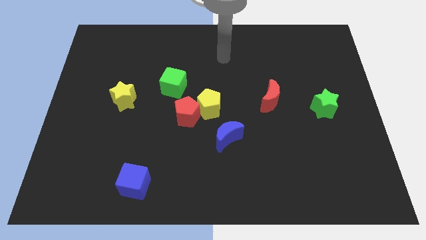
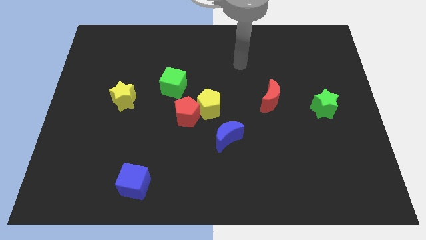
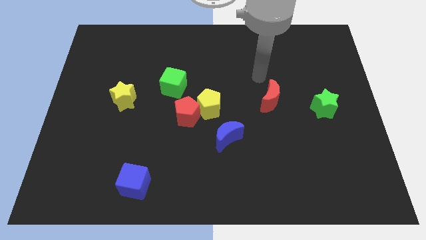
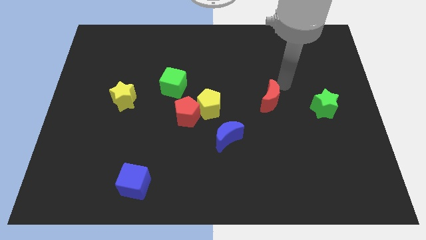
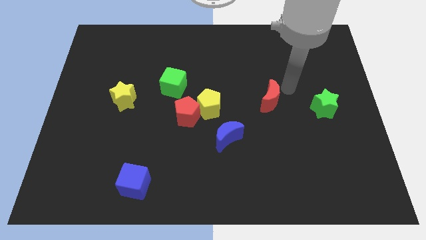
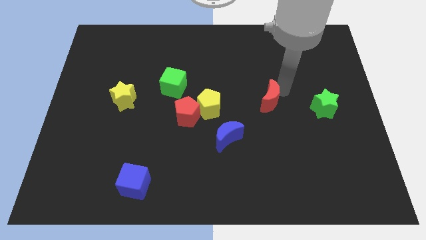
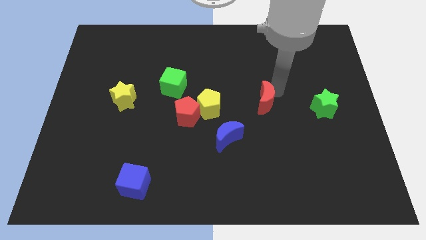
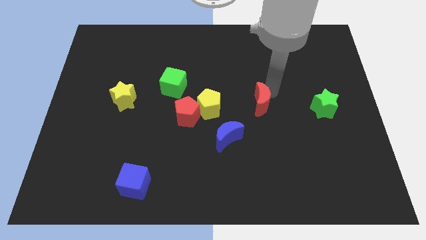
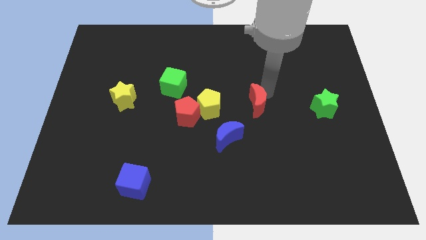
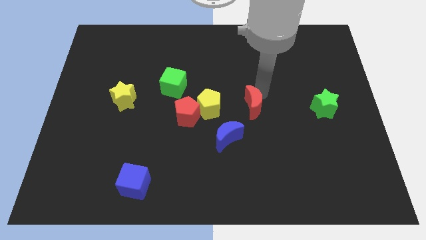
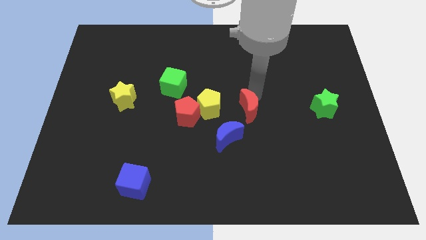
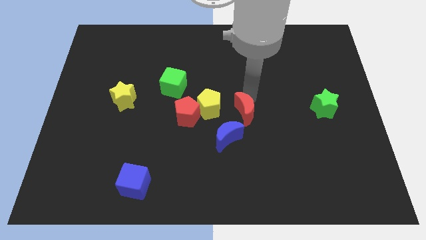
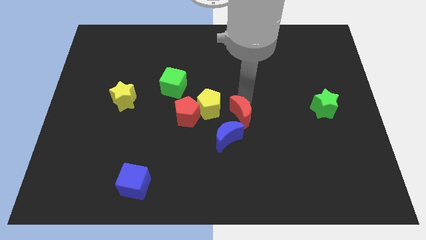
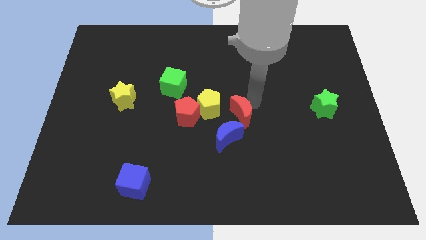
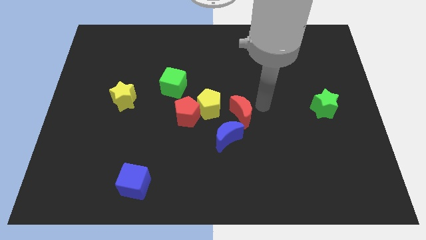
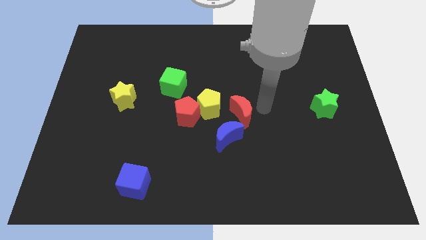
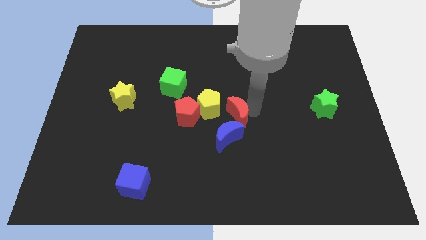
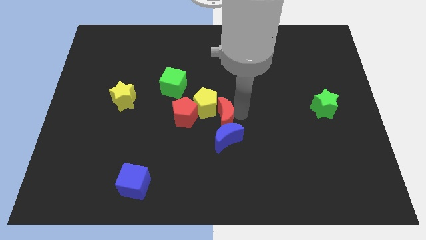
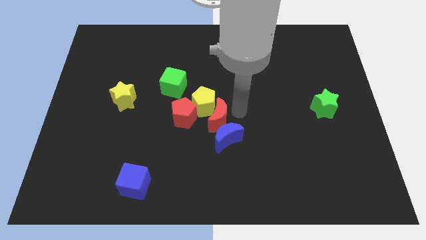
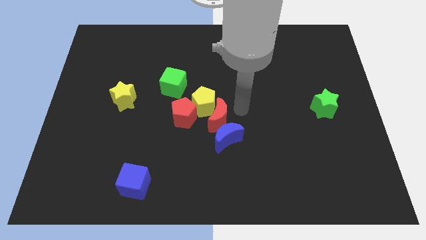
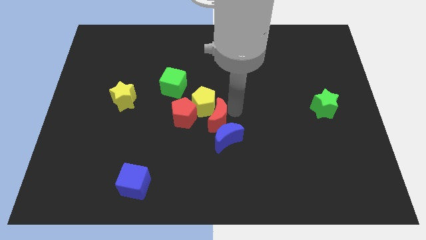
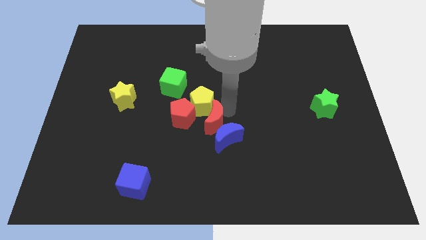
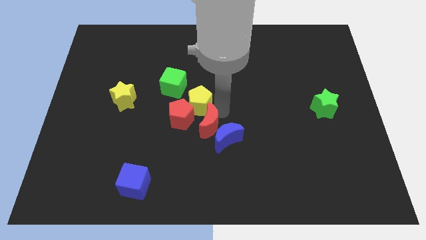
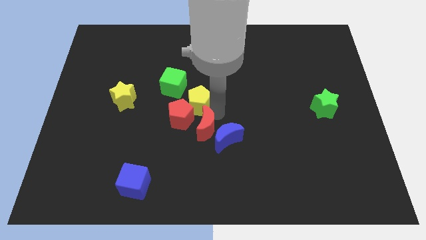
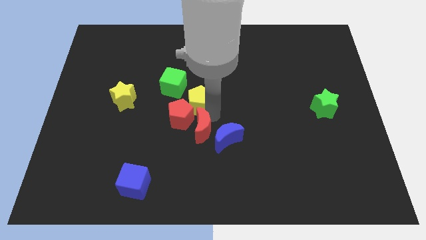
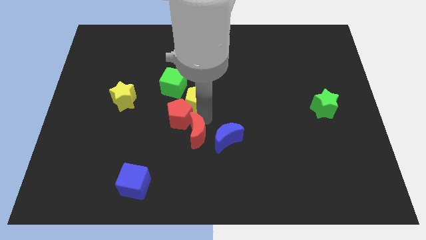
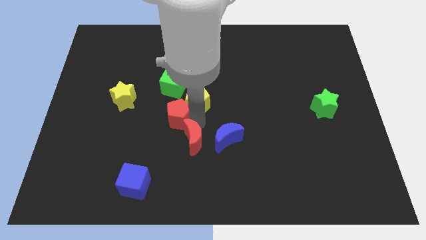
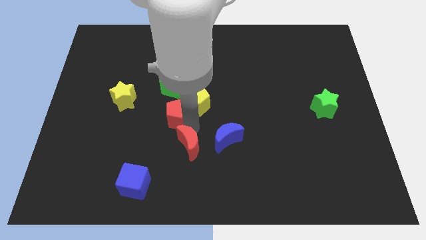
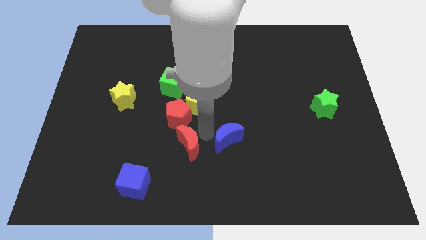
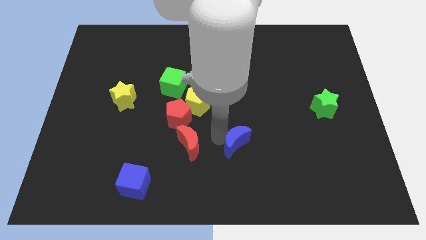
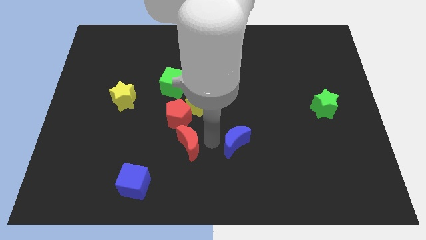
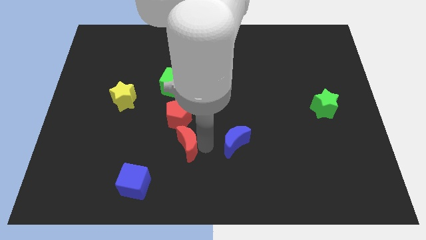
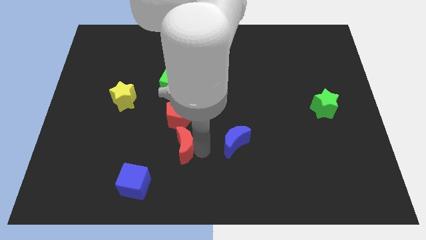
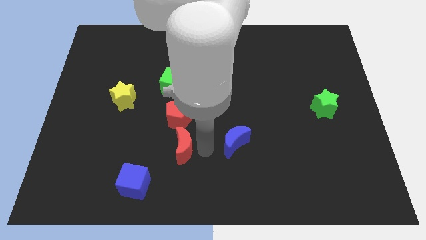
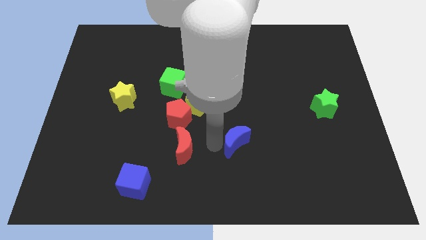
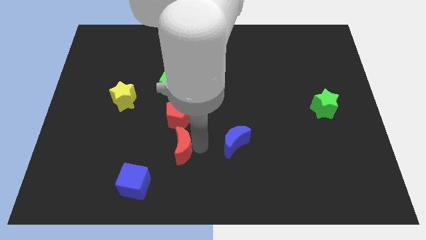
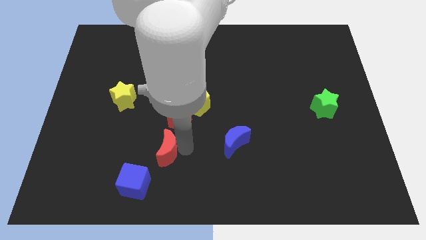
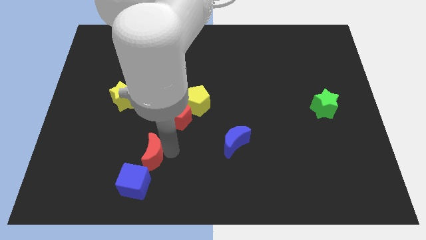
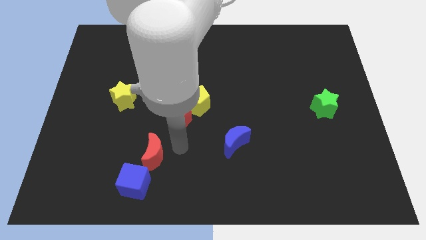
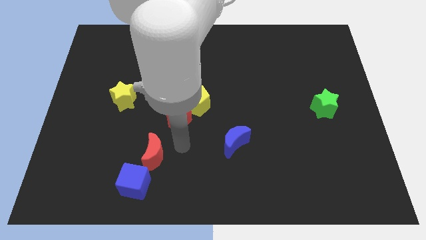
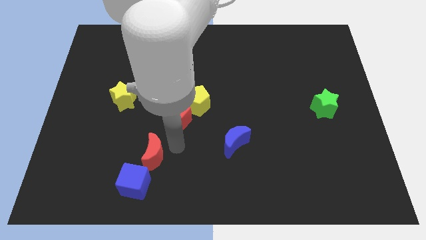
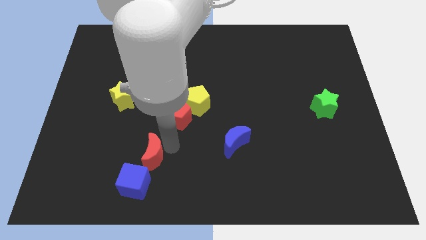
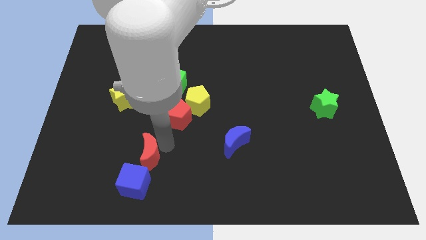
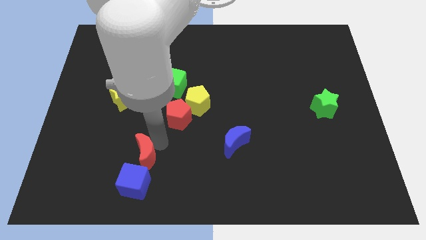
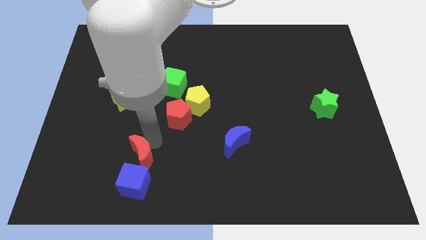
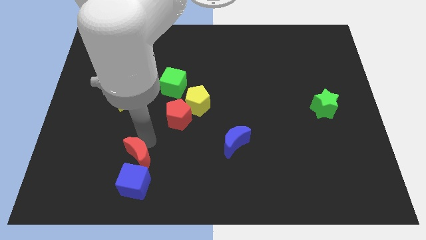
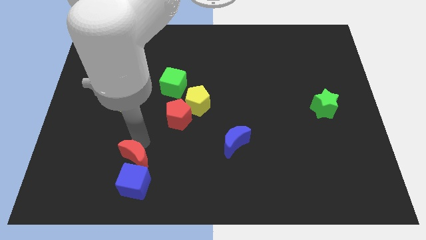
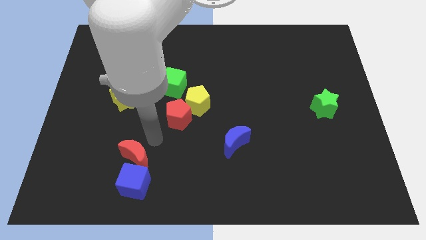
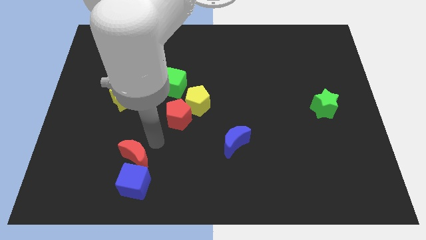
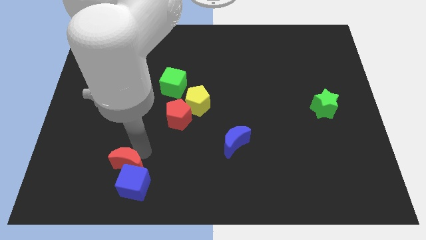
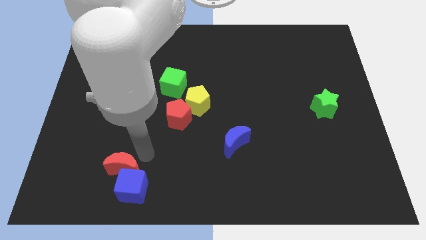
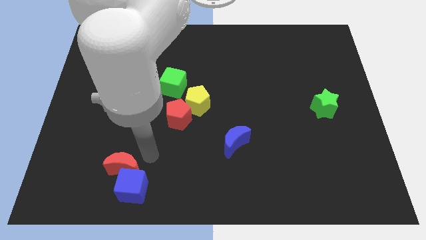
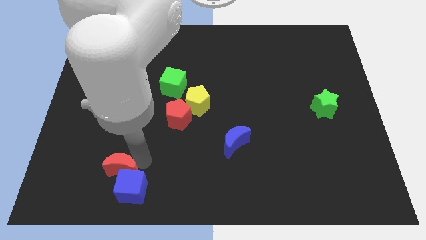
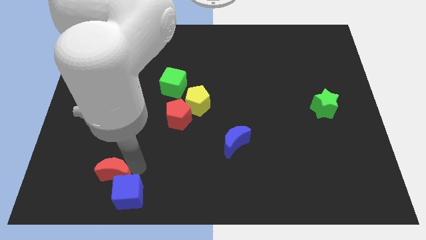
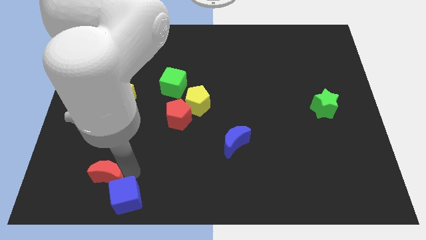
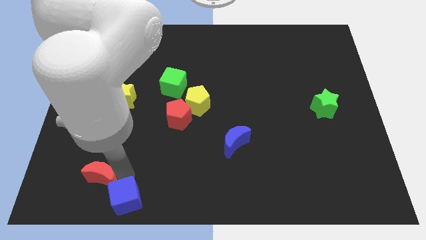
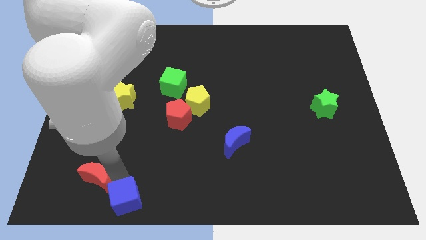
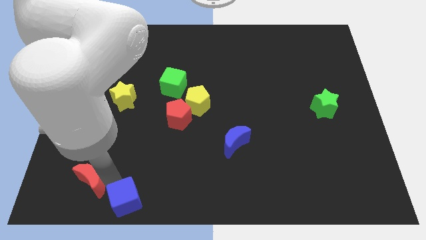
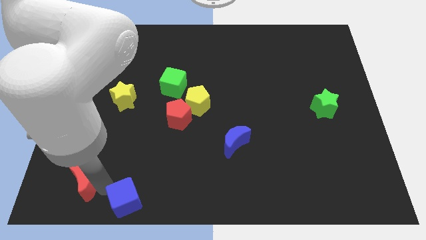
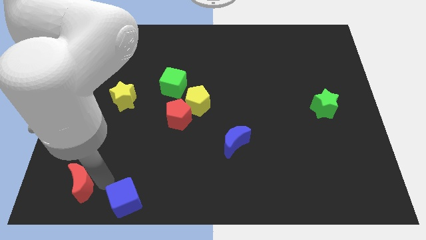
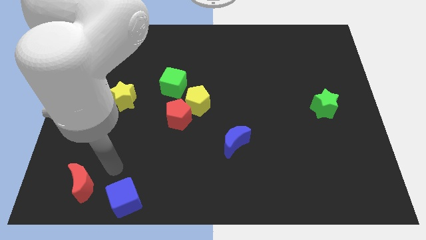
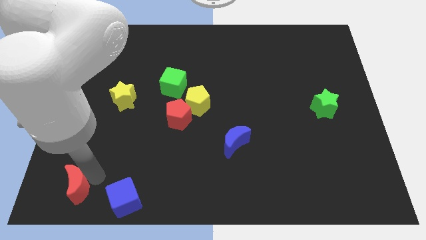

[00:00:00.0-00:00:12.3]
move the red moon to the lower left corner

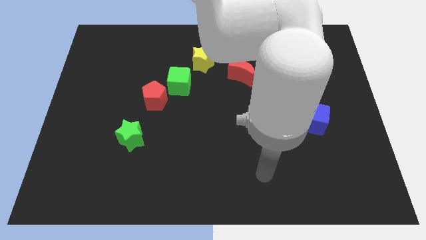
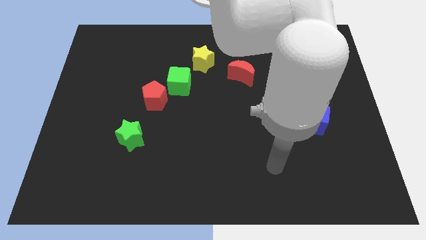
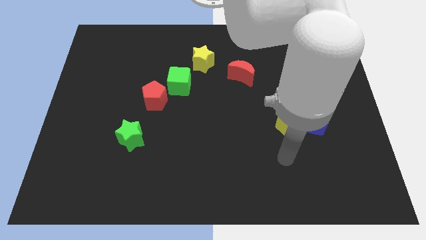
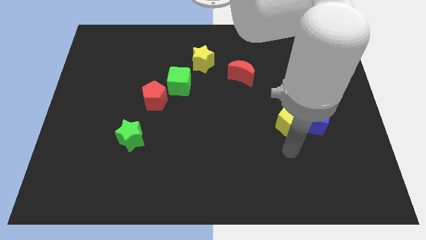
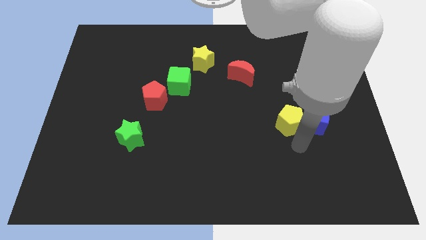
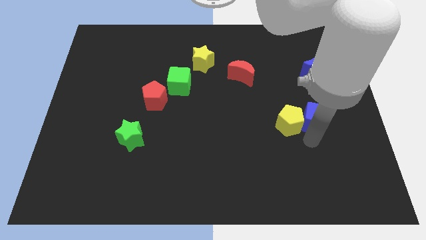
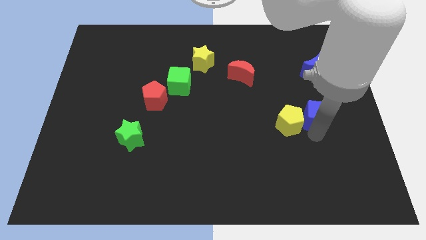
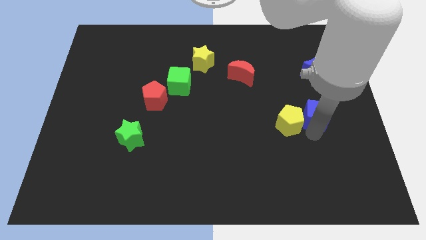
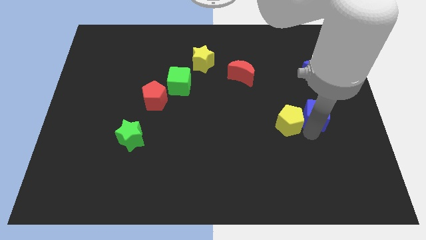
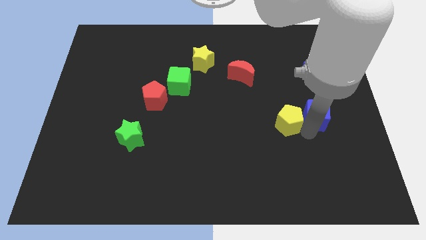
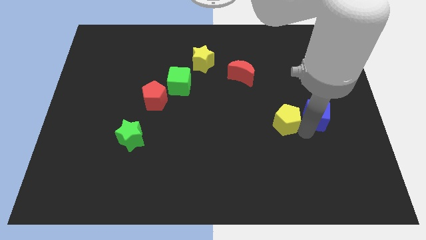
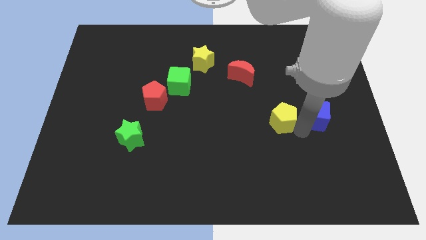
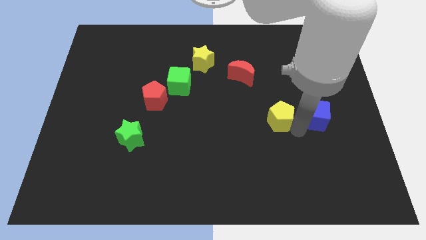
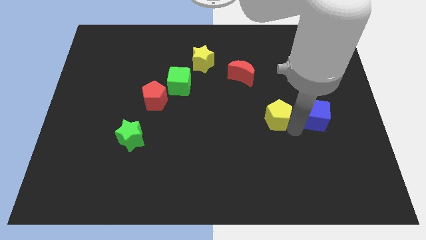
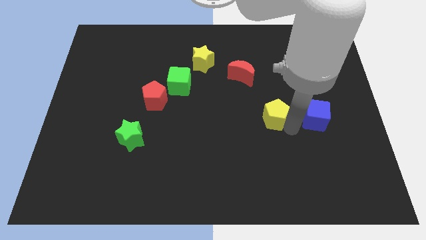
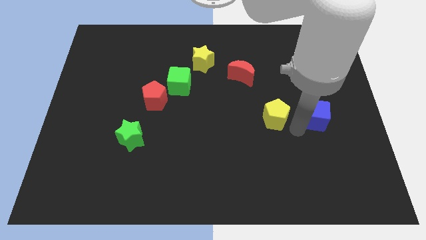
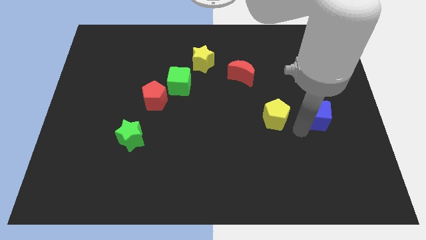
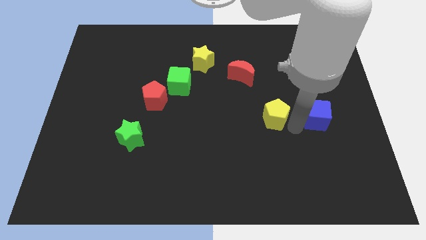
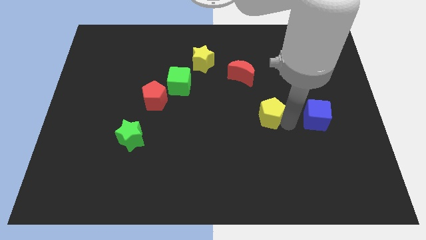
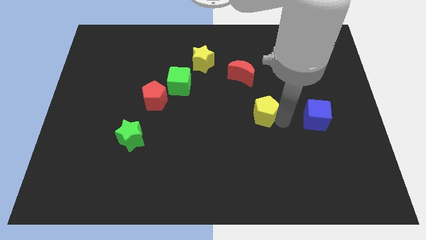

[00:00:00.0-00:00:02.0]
move the yellow pentagon to the middle
